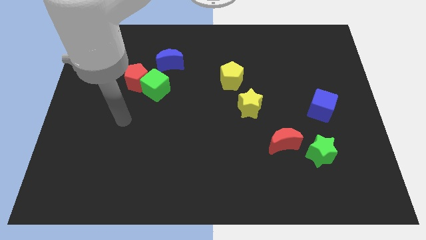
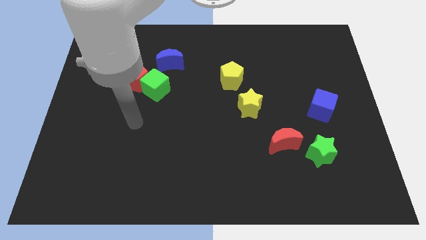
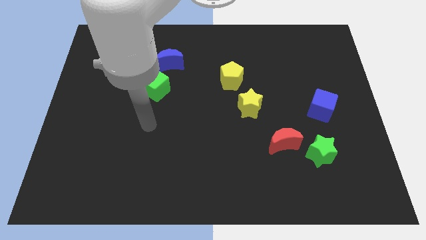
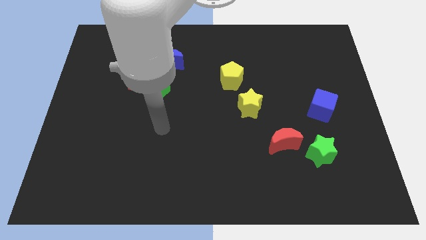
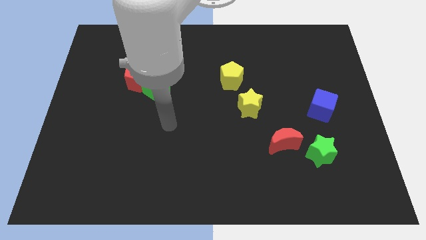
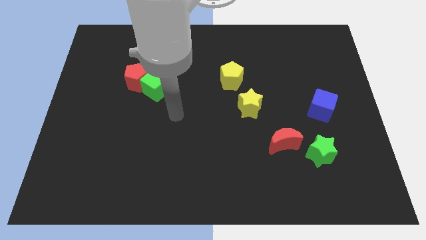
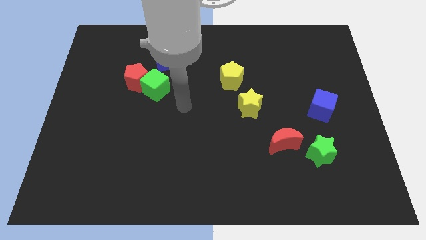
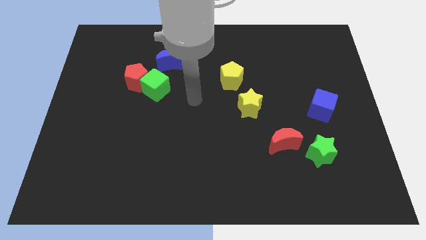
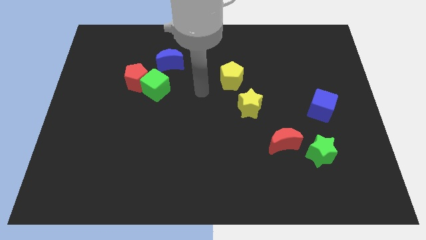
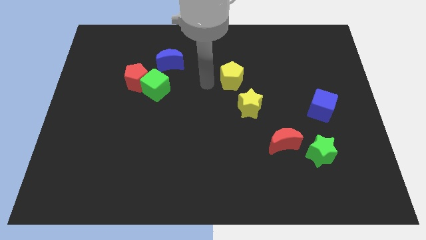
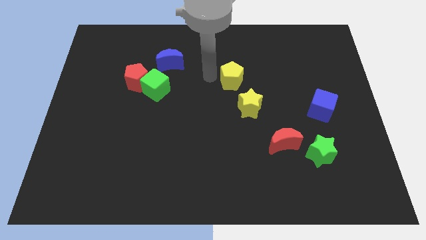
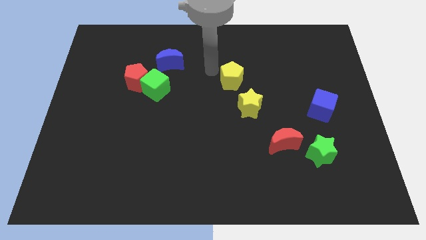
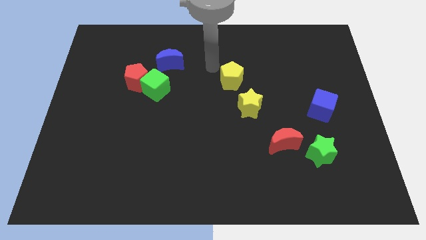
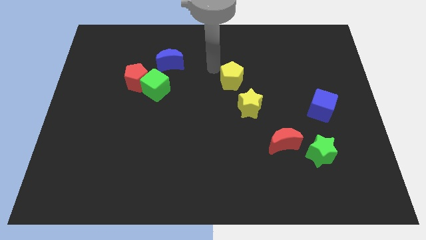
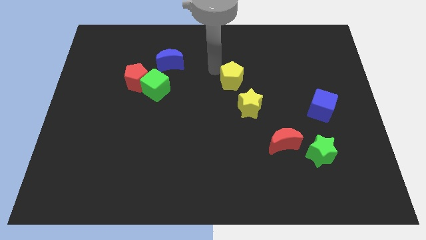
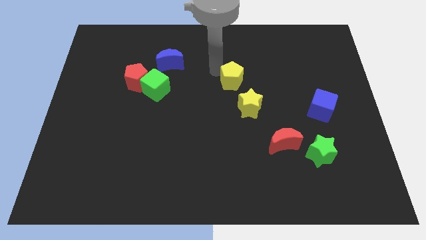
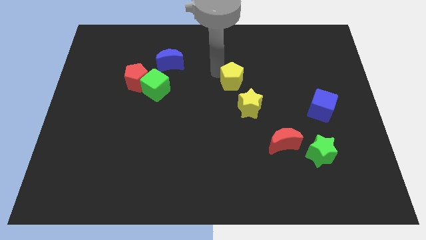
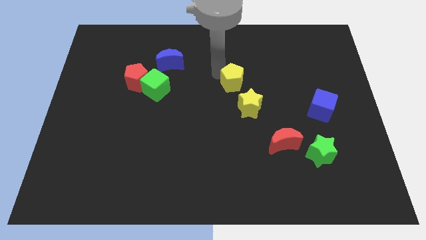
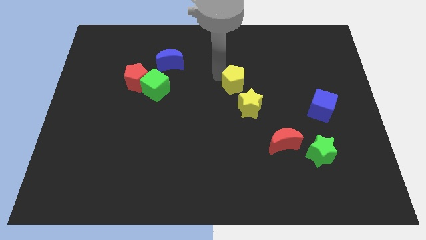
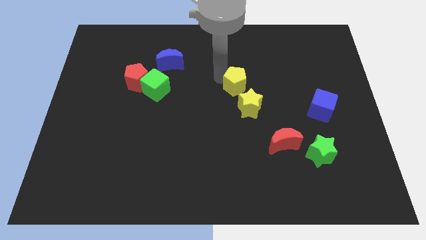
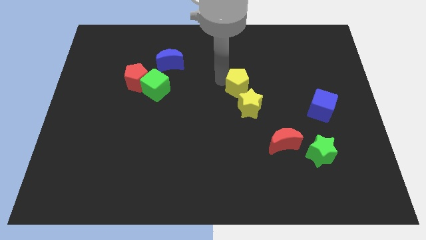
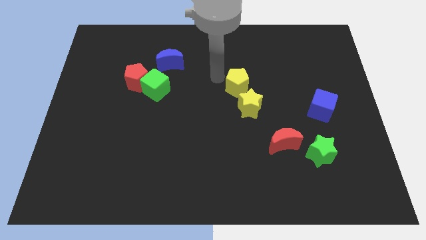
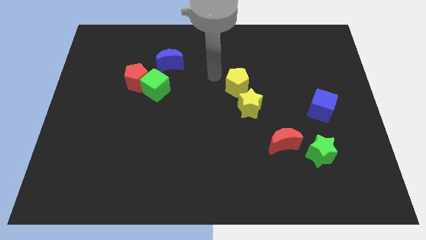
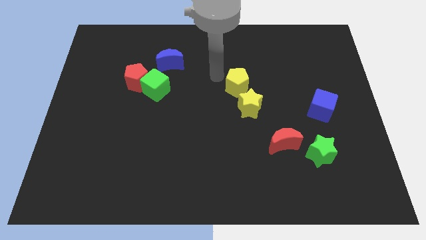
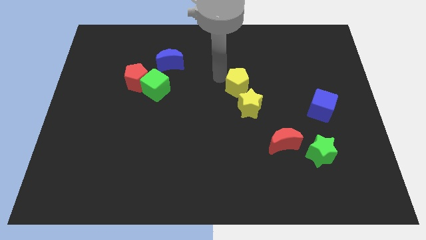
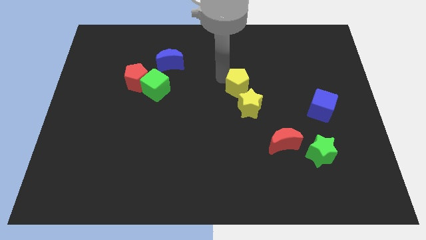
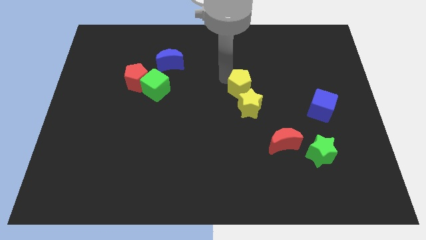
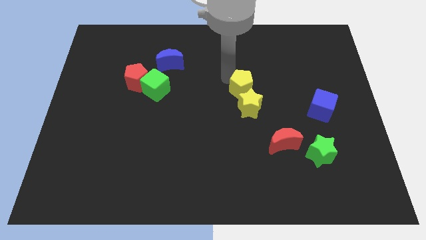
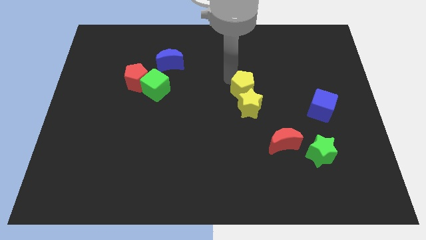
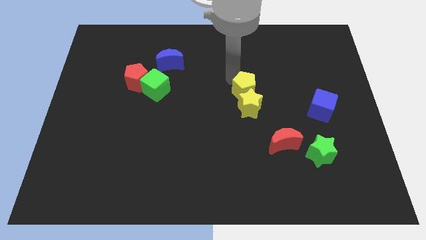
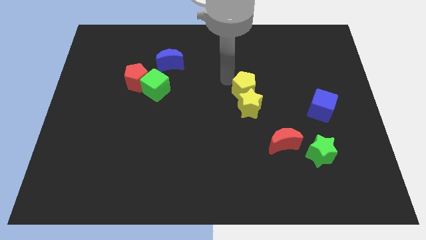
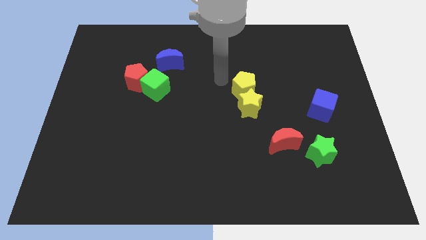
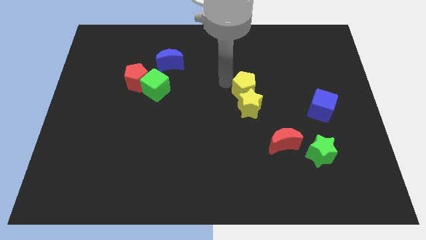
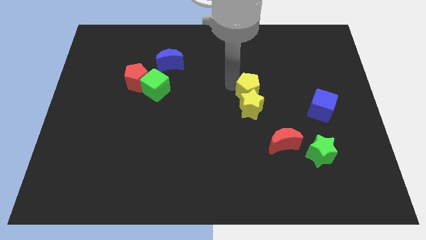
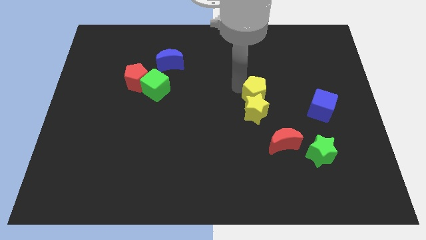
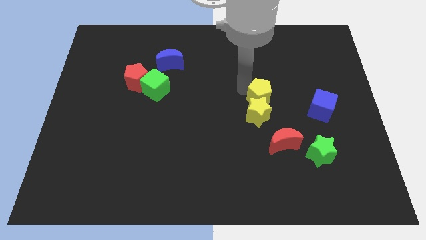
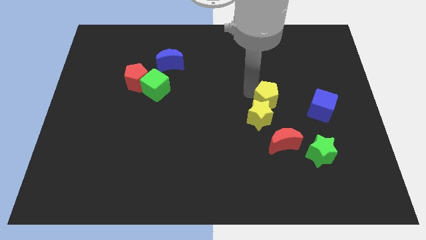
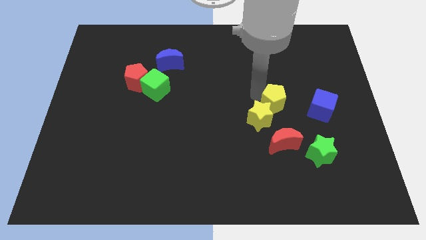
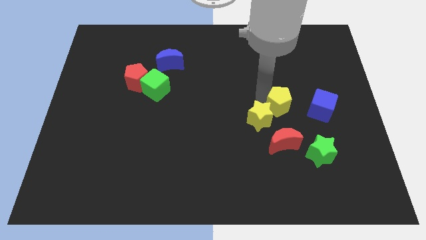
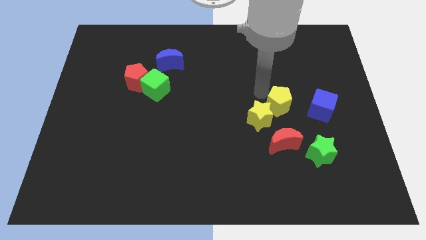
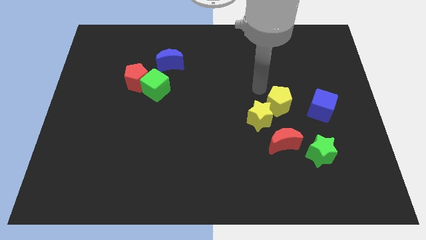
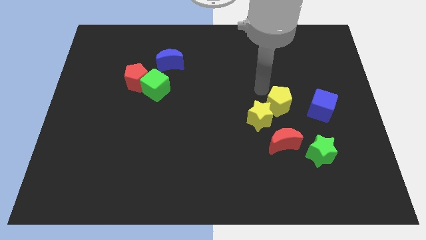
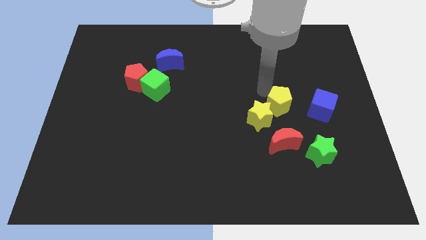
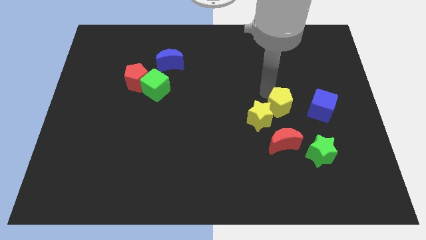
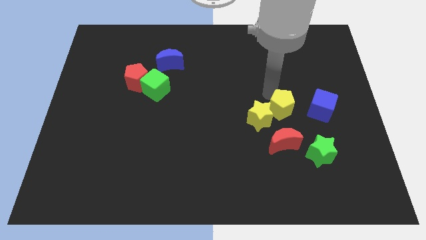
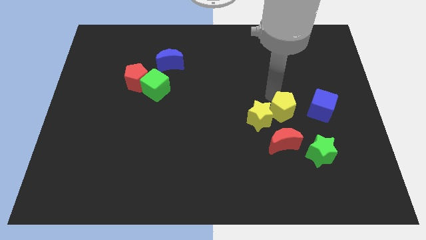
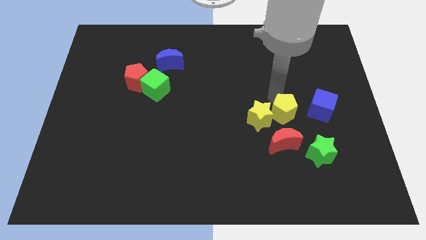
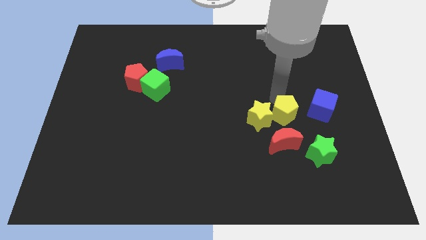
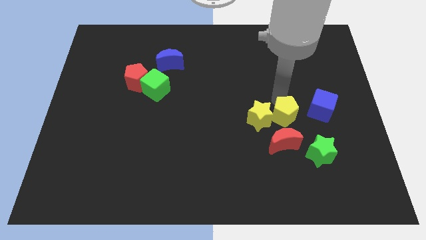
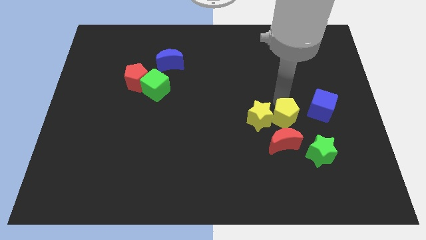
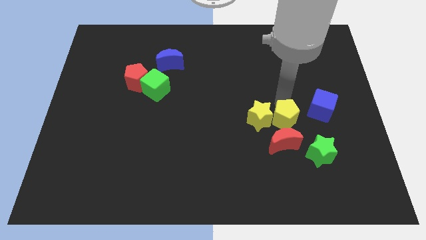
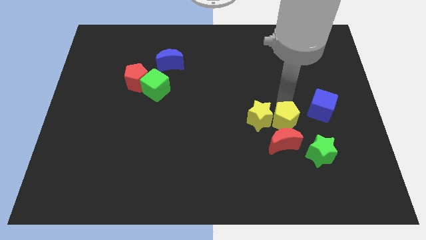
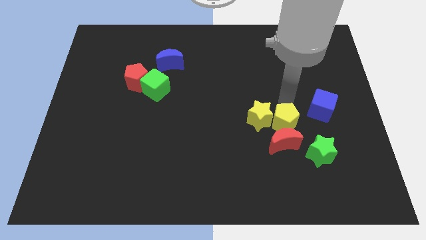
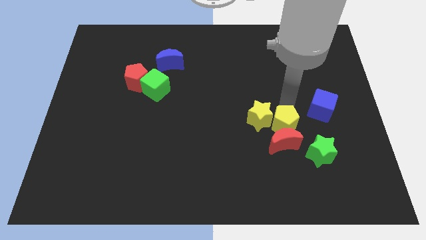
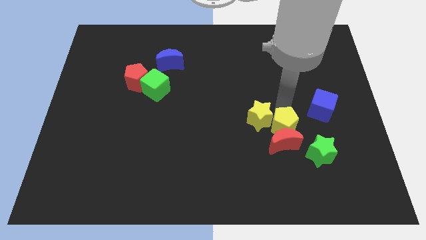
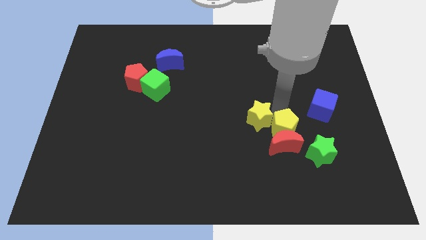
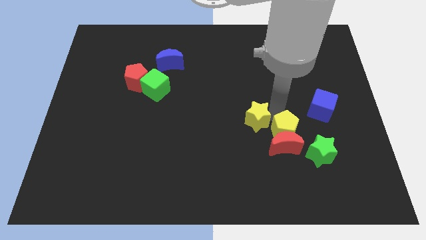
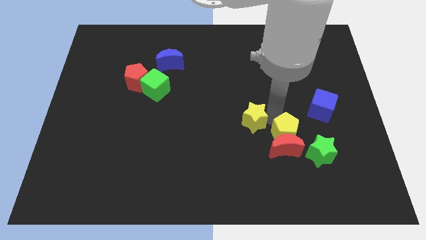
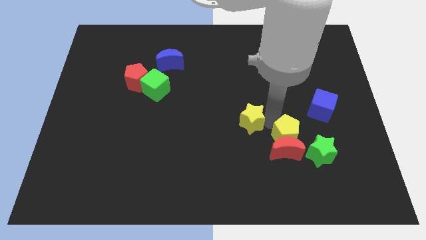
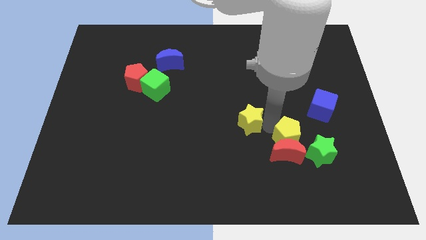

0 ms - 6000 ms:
slide the yellow pentagon diagonally downwards and right

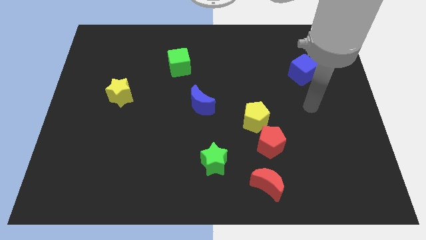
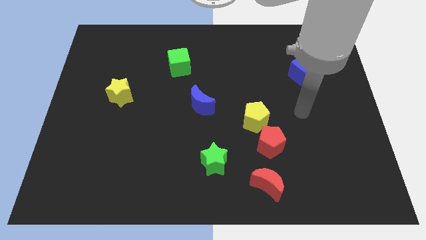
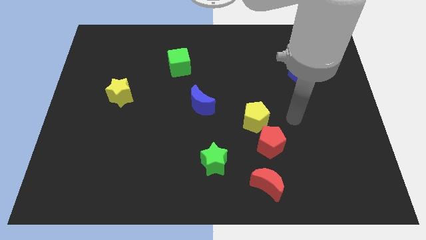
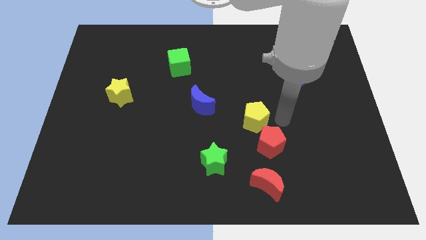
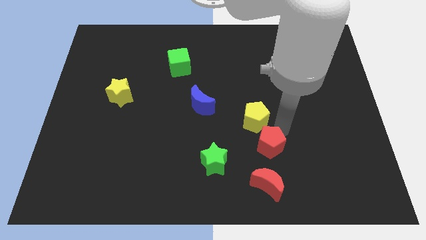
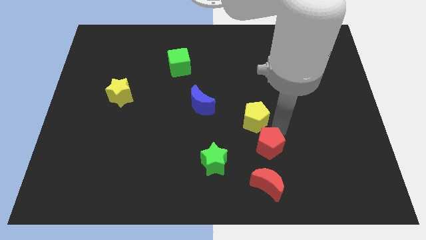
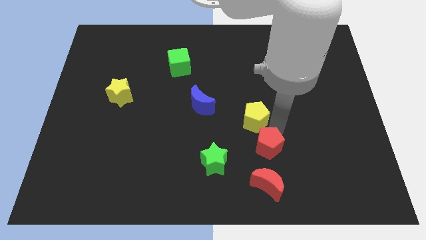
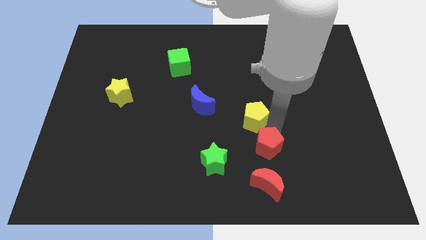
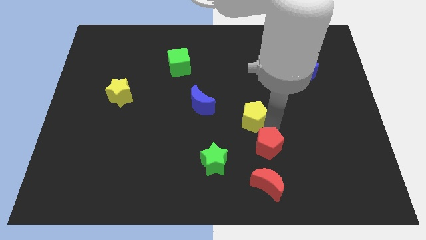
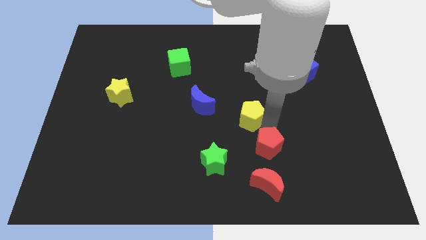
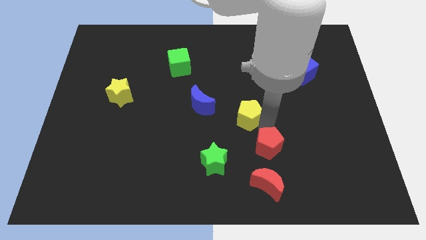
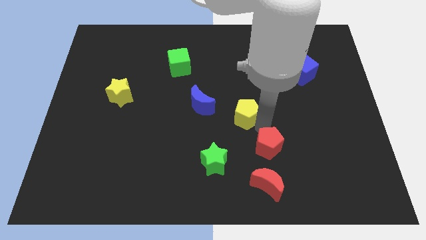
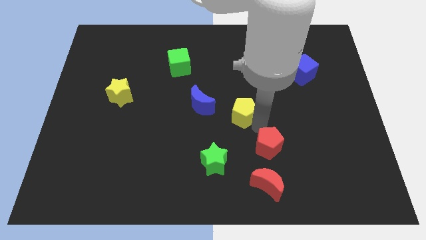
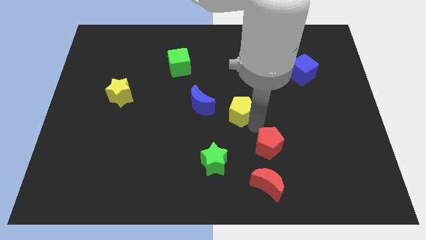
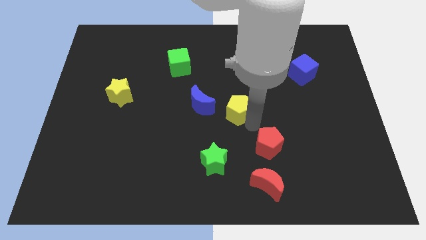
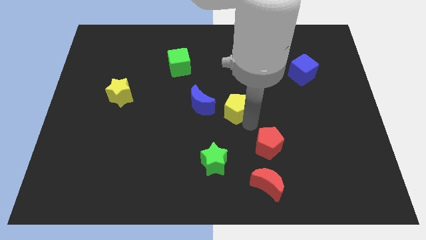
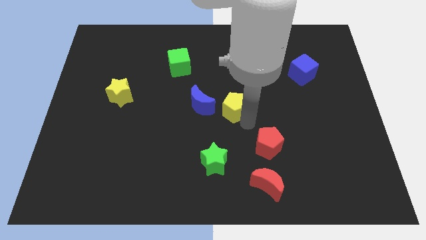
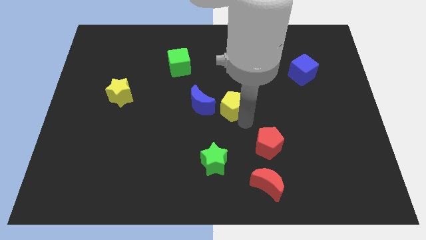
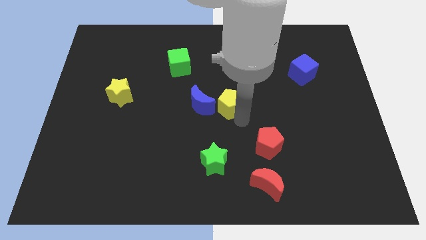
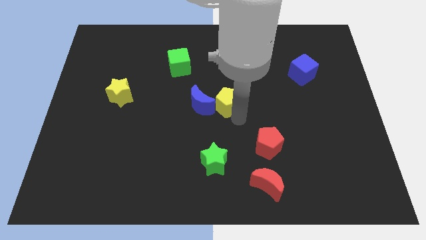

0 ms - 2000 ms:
slide the yellow pentagon up and then to the left slightly

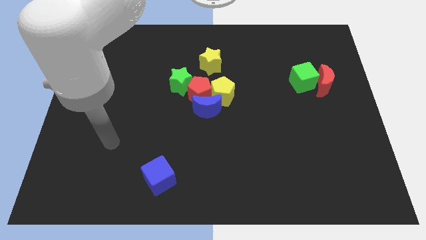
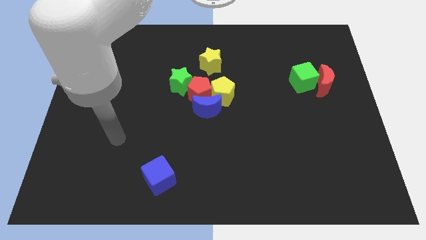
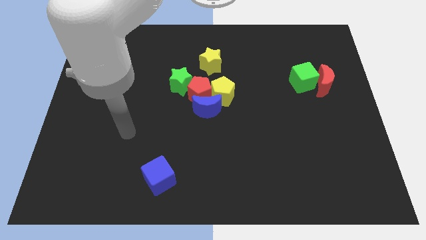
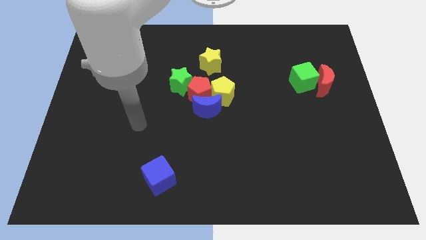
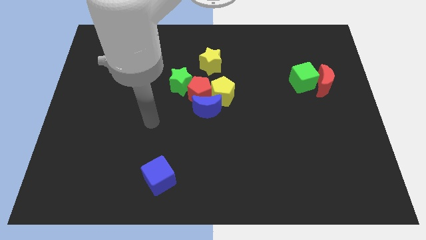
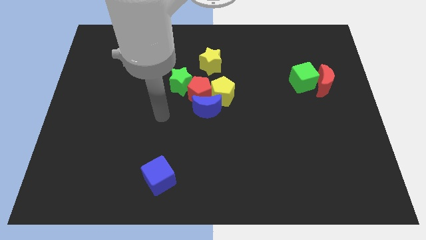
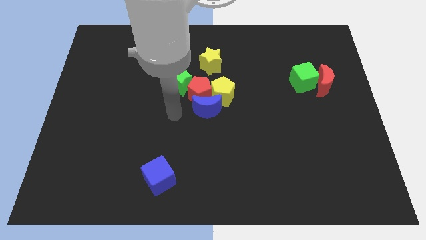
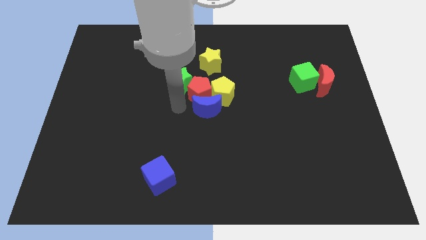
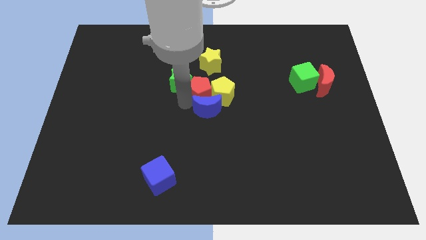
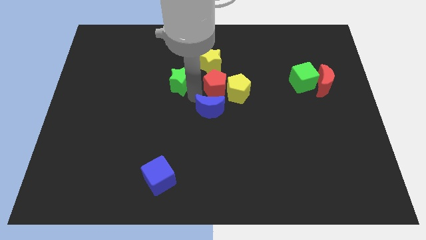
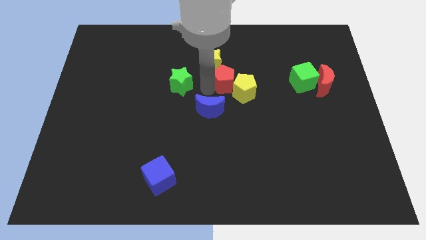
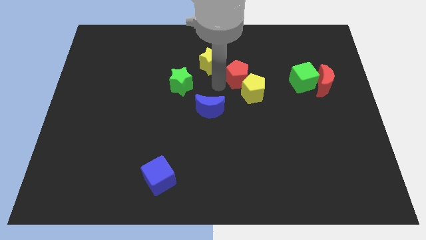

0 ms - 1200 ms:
push the yellow pentagon slightly right
